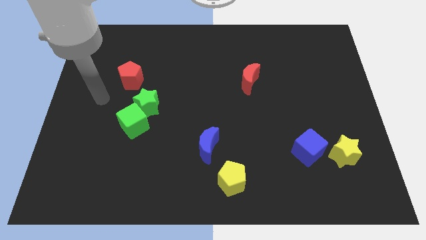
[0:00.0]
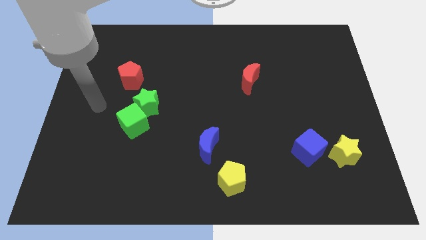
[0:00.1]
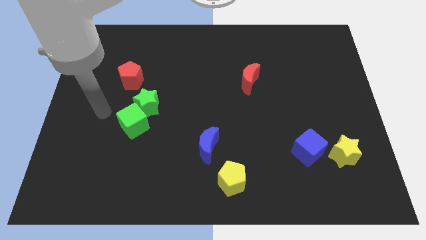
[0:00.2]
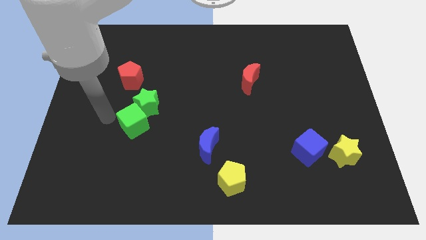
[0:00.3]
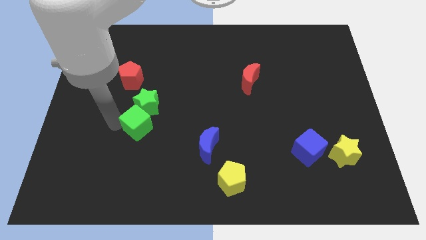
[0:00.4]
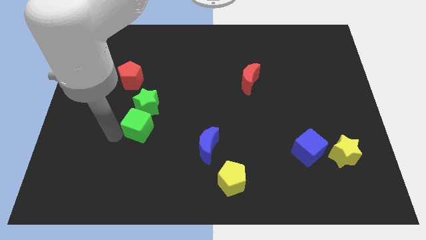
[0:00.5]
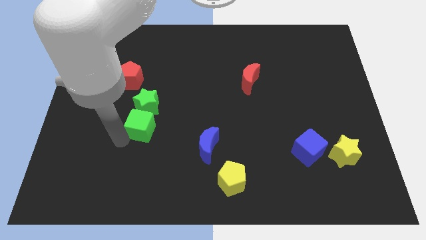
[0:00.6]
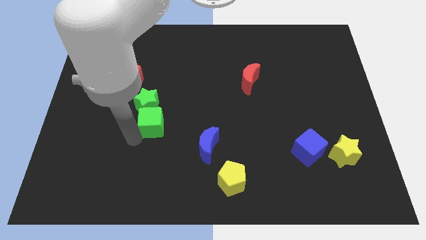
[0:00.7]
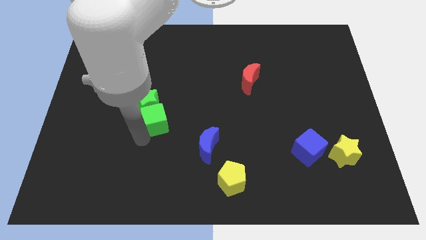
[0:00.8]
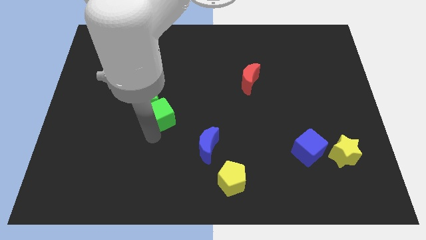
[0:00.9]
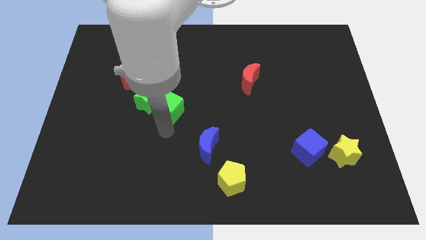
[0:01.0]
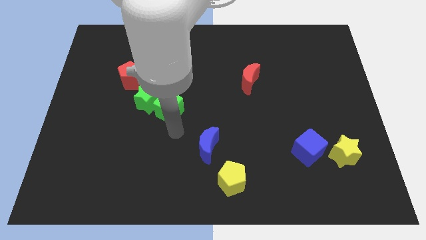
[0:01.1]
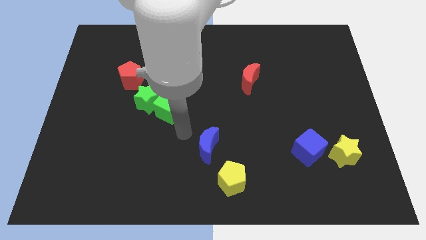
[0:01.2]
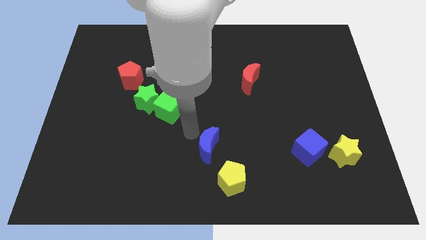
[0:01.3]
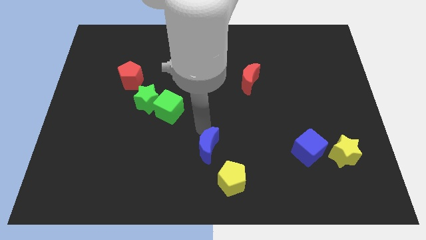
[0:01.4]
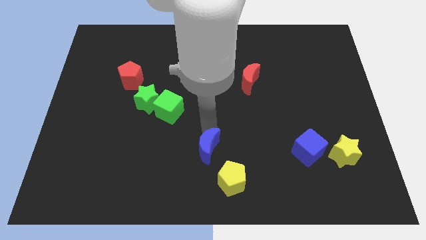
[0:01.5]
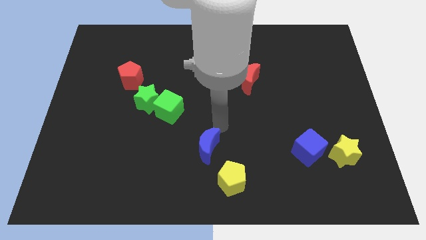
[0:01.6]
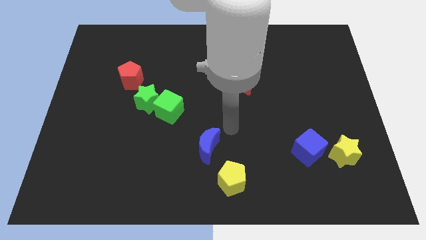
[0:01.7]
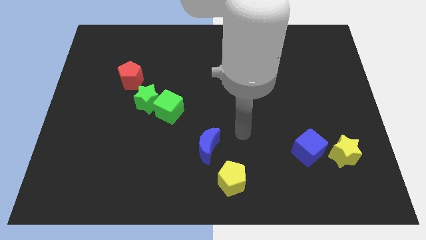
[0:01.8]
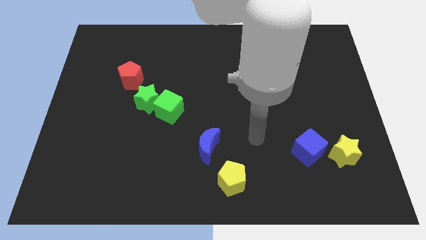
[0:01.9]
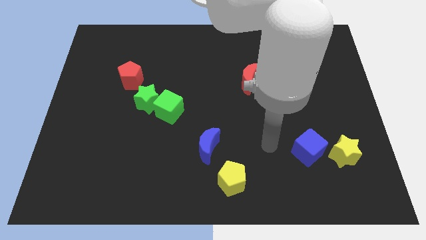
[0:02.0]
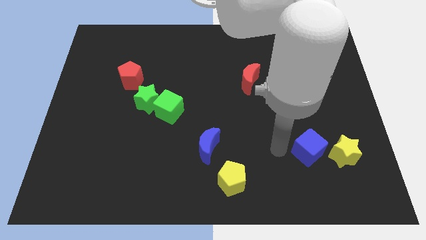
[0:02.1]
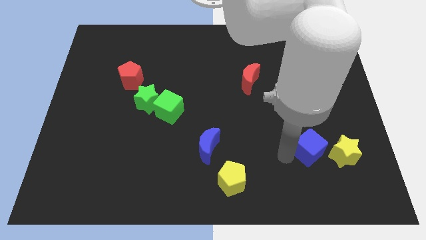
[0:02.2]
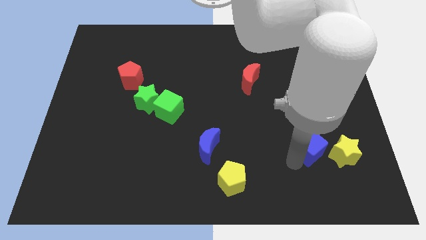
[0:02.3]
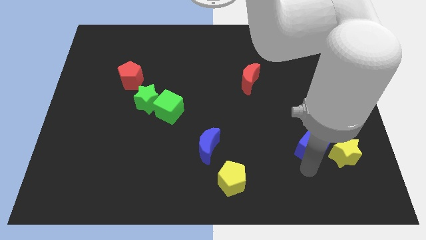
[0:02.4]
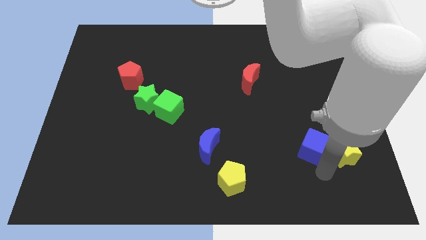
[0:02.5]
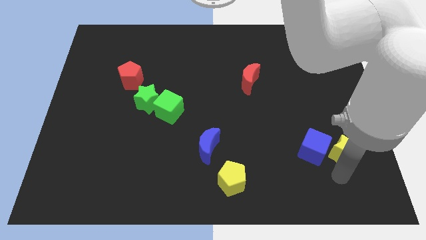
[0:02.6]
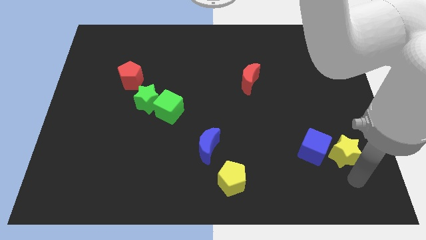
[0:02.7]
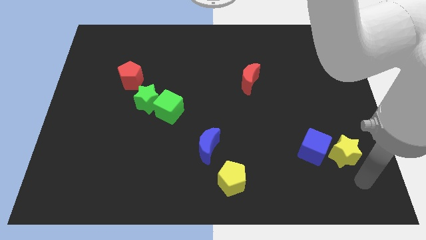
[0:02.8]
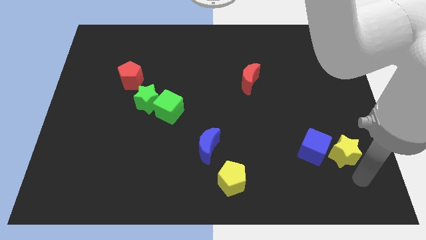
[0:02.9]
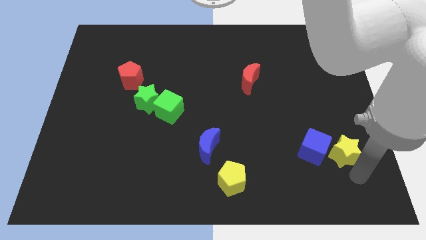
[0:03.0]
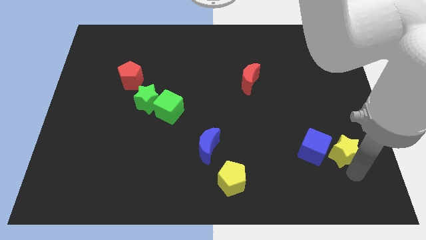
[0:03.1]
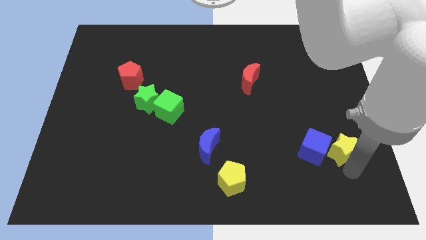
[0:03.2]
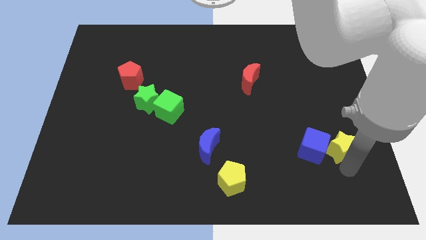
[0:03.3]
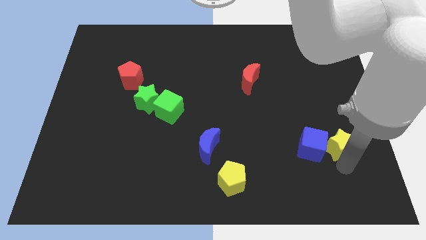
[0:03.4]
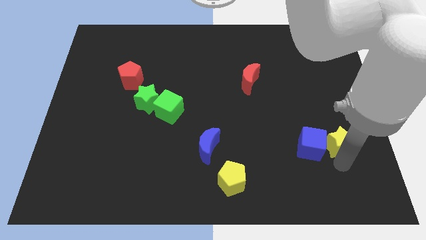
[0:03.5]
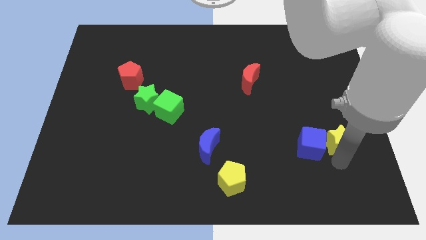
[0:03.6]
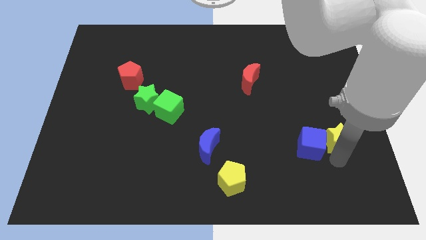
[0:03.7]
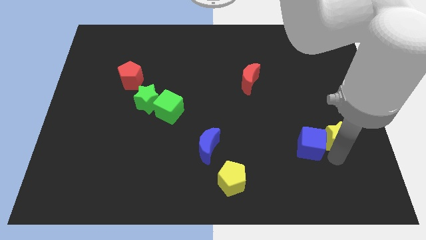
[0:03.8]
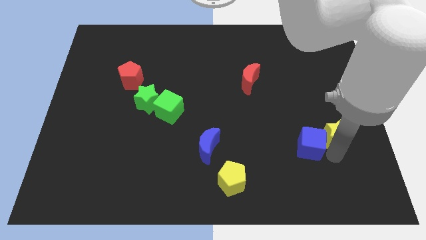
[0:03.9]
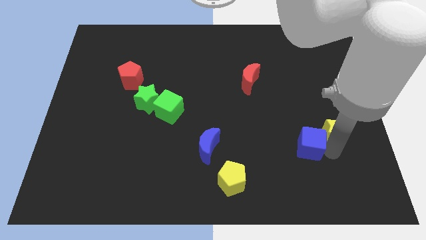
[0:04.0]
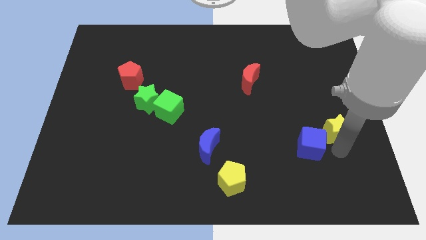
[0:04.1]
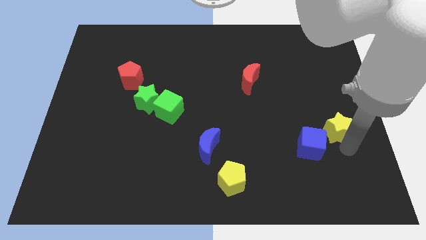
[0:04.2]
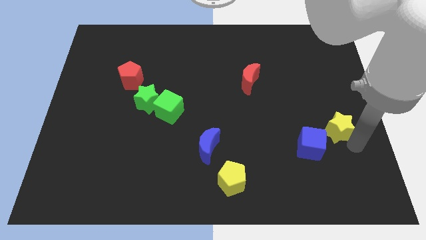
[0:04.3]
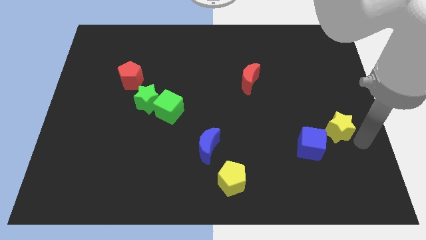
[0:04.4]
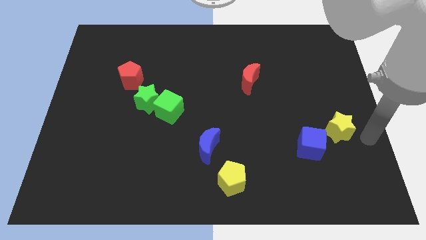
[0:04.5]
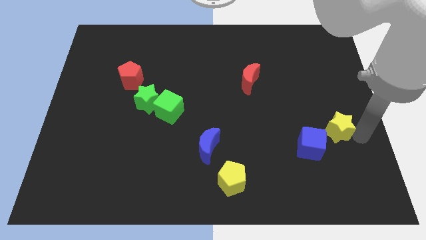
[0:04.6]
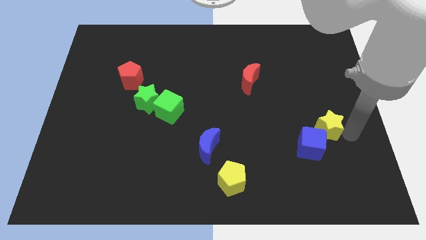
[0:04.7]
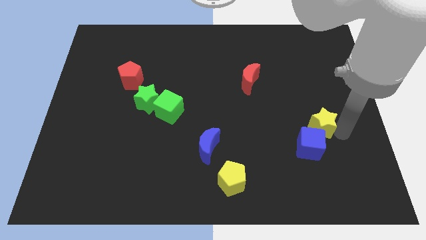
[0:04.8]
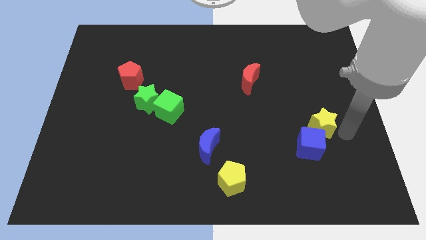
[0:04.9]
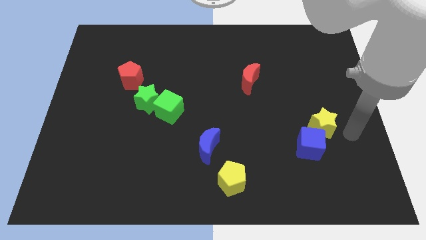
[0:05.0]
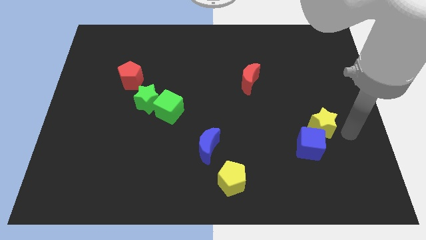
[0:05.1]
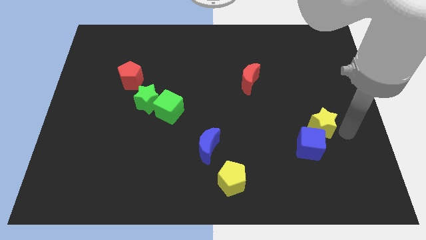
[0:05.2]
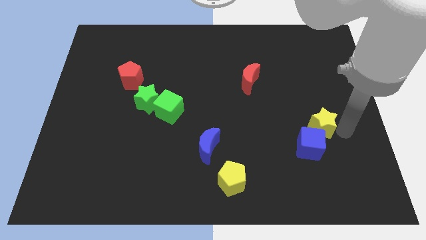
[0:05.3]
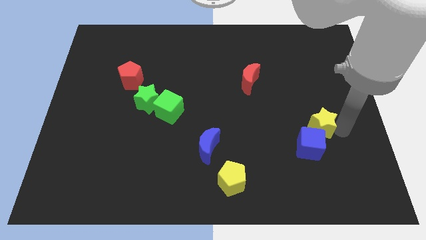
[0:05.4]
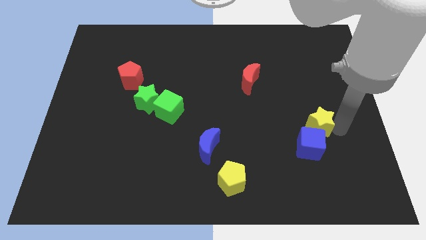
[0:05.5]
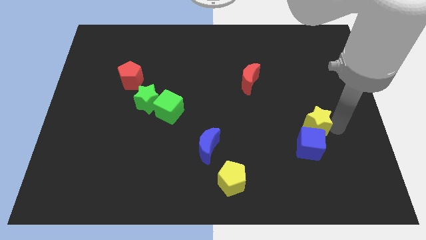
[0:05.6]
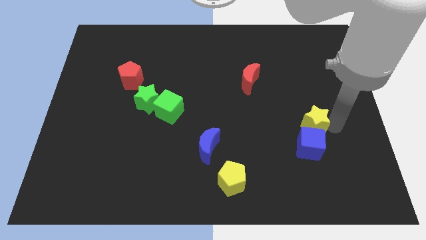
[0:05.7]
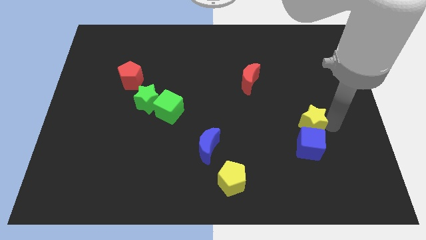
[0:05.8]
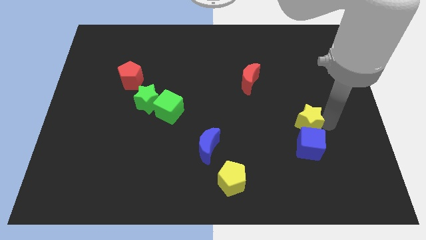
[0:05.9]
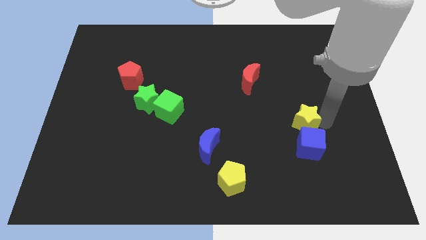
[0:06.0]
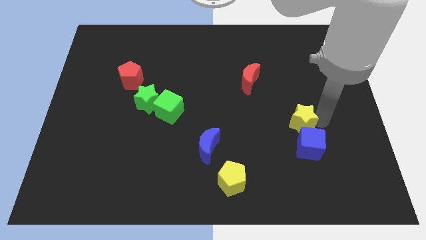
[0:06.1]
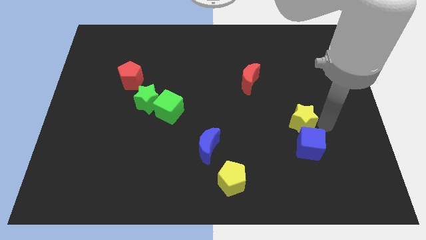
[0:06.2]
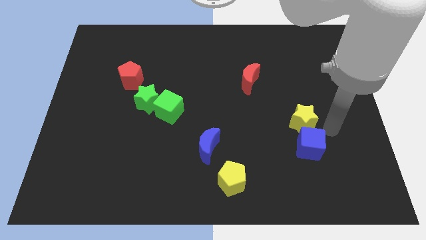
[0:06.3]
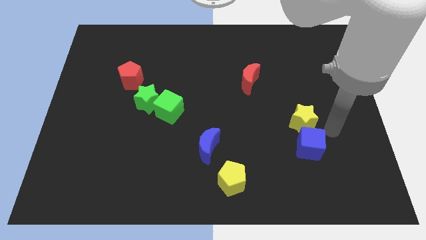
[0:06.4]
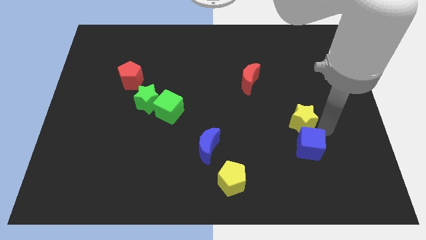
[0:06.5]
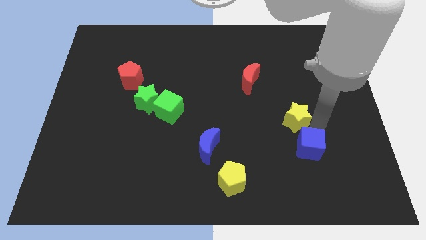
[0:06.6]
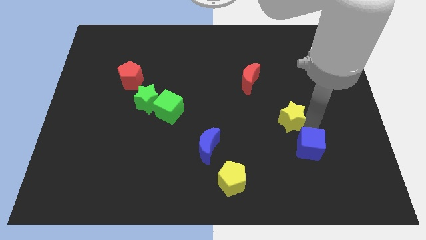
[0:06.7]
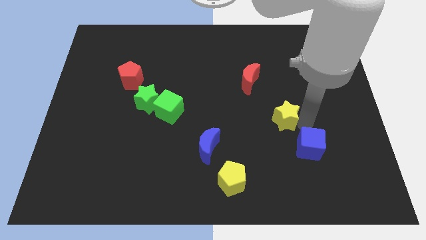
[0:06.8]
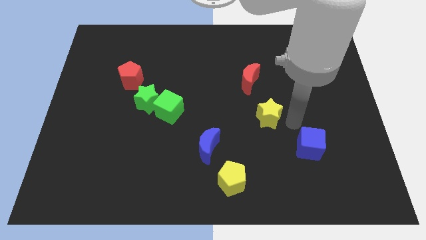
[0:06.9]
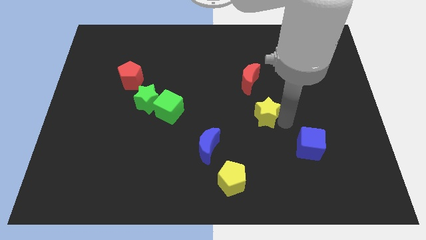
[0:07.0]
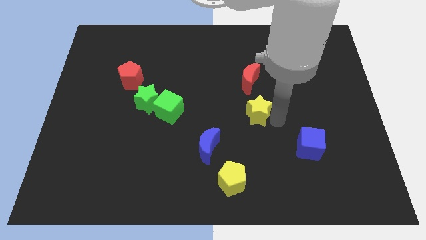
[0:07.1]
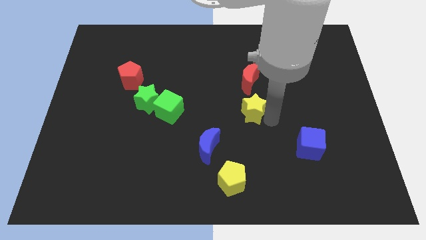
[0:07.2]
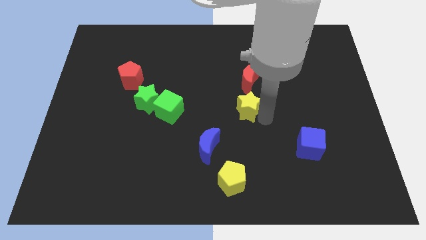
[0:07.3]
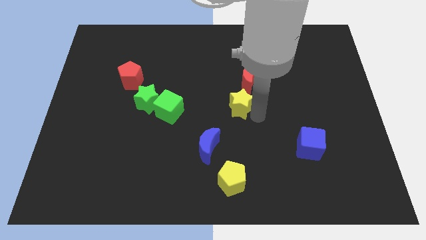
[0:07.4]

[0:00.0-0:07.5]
slide the yellow star to the bottom left of the red moon
